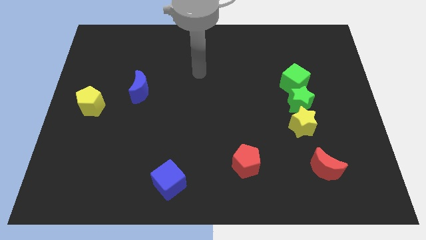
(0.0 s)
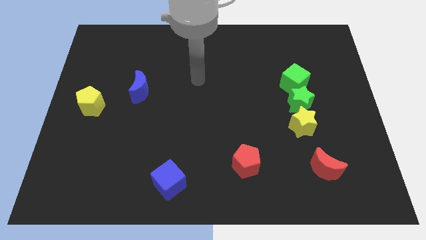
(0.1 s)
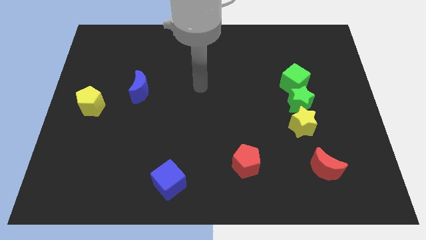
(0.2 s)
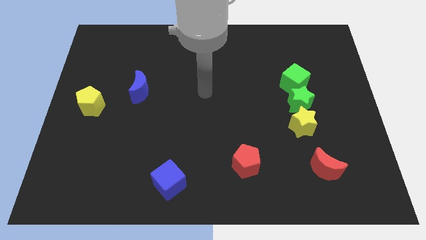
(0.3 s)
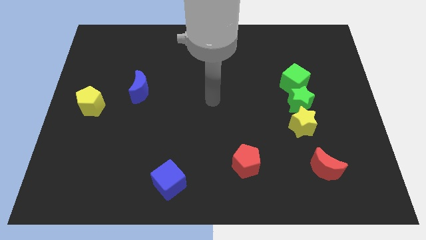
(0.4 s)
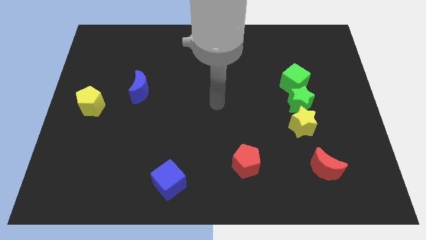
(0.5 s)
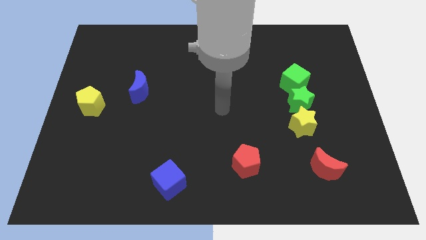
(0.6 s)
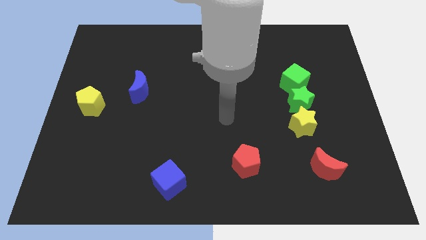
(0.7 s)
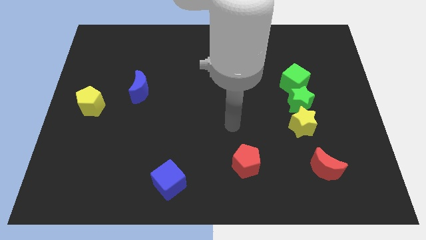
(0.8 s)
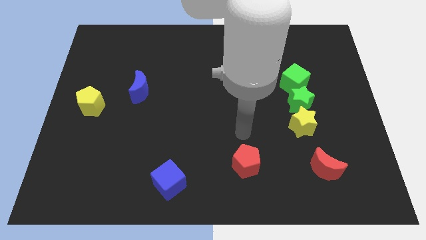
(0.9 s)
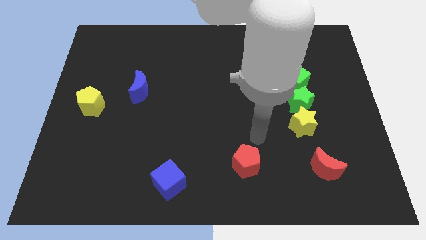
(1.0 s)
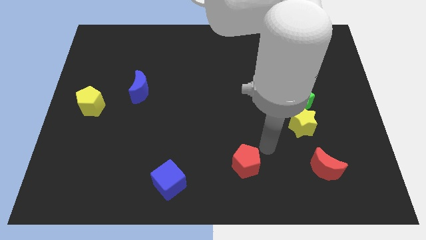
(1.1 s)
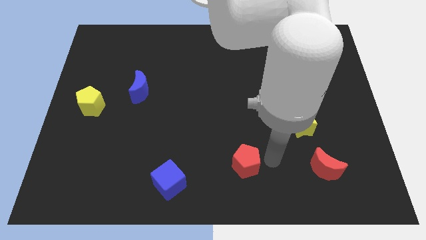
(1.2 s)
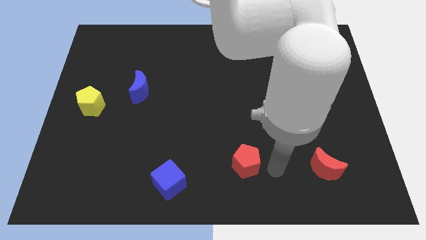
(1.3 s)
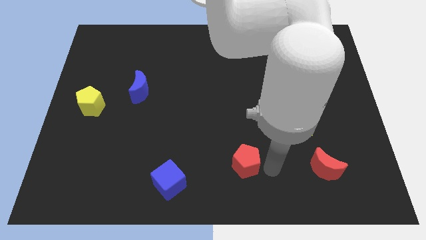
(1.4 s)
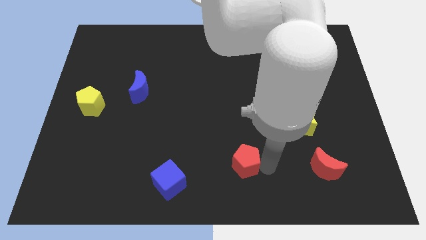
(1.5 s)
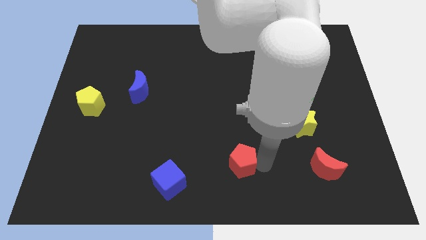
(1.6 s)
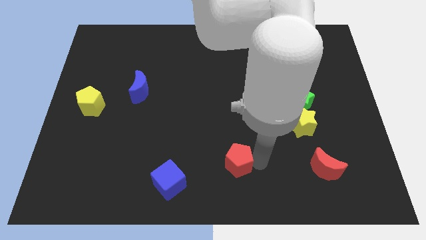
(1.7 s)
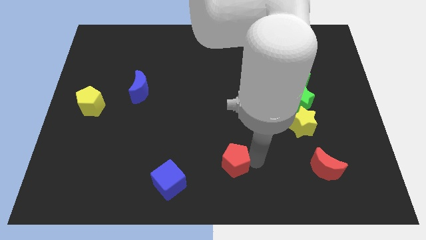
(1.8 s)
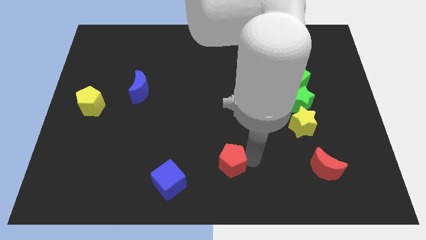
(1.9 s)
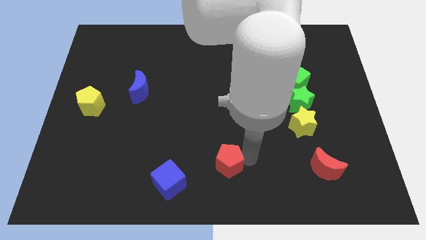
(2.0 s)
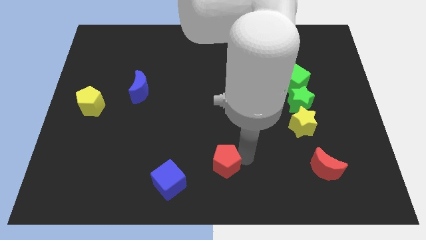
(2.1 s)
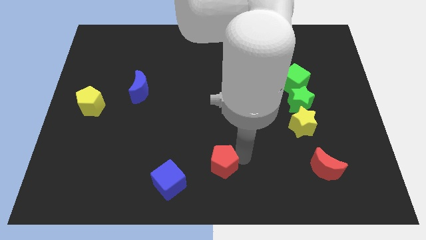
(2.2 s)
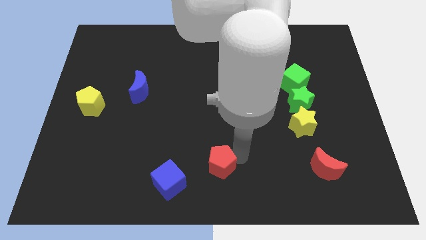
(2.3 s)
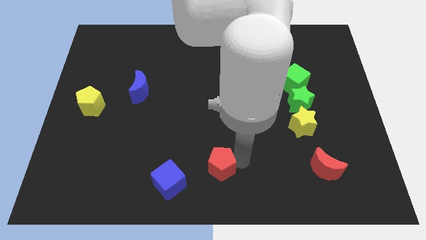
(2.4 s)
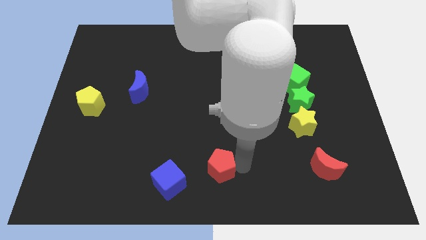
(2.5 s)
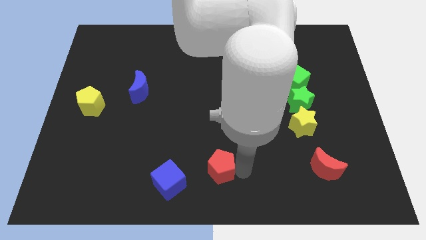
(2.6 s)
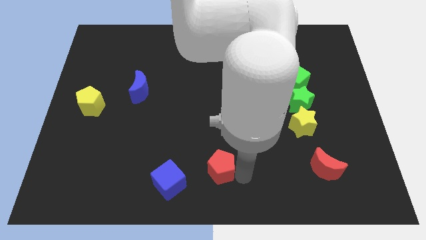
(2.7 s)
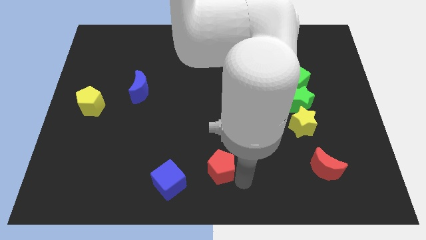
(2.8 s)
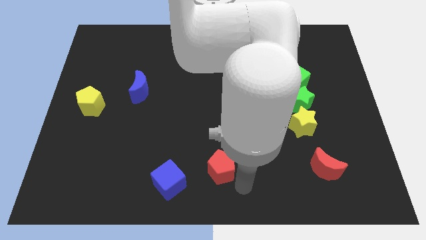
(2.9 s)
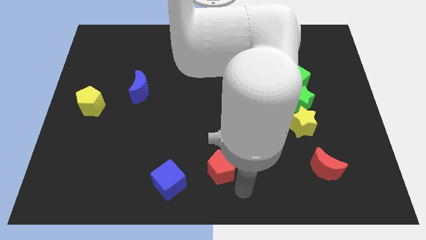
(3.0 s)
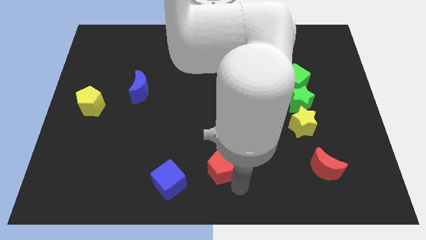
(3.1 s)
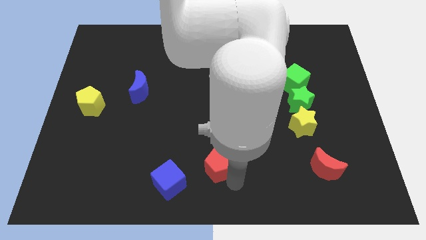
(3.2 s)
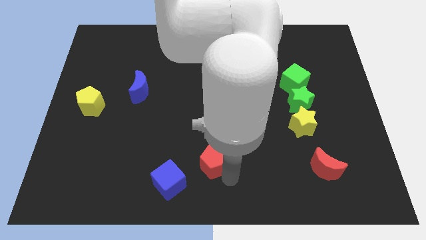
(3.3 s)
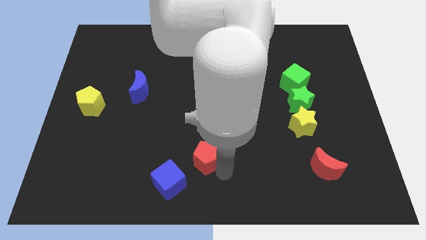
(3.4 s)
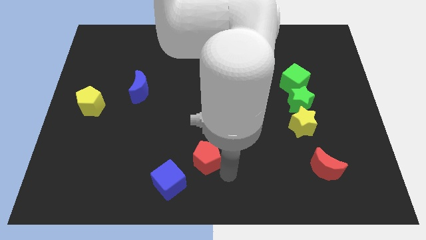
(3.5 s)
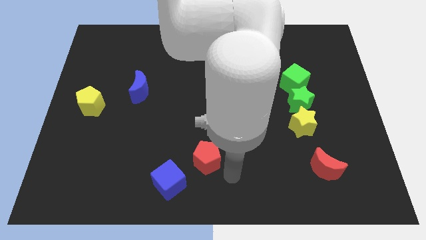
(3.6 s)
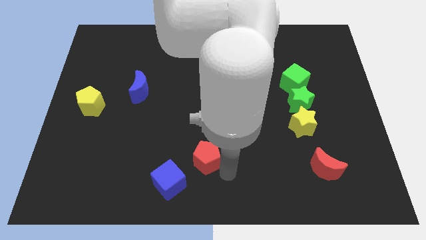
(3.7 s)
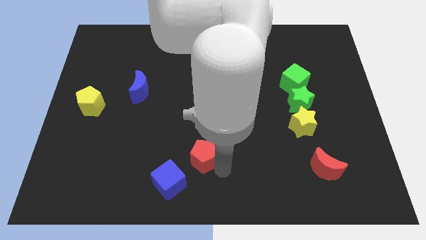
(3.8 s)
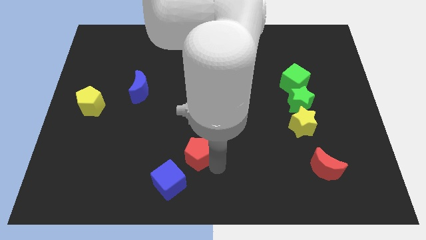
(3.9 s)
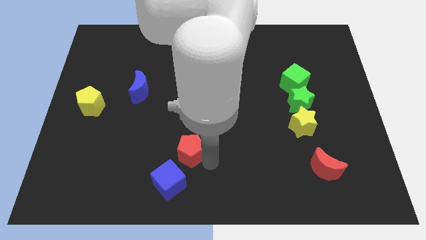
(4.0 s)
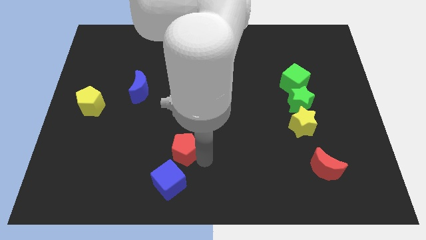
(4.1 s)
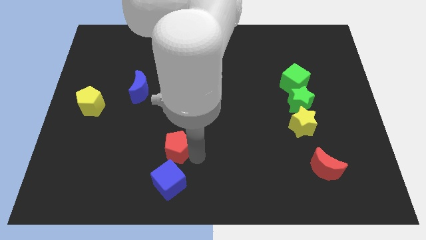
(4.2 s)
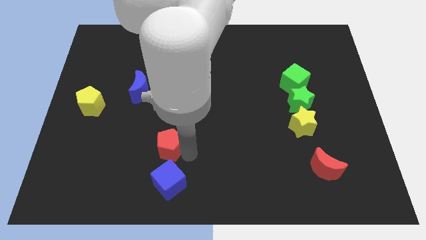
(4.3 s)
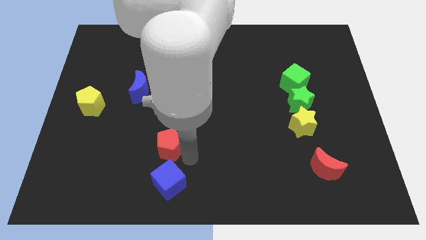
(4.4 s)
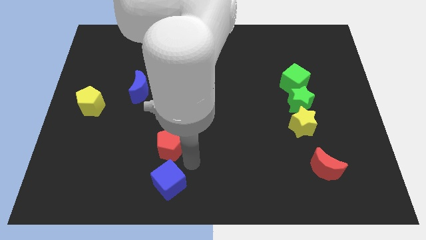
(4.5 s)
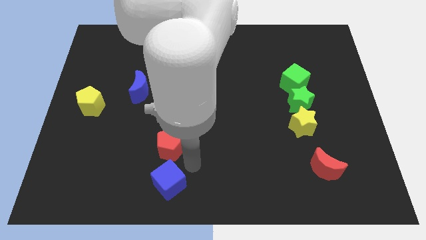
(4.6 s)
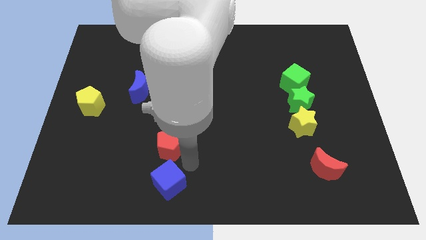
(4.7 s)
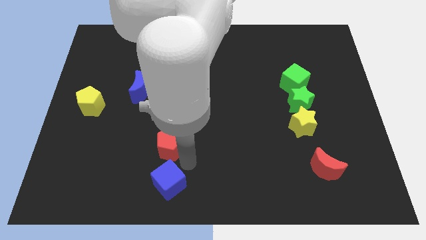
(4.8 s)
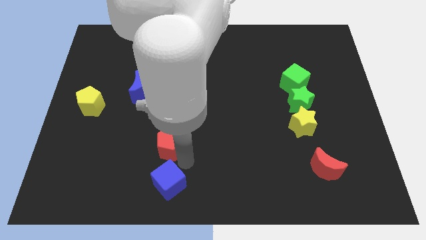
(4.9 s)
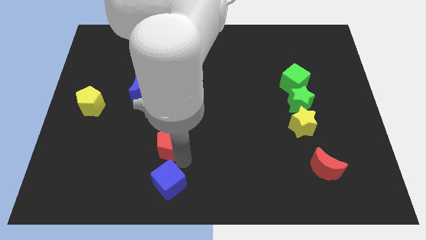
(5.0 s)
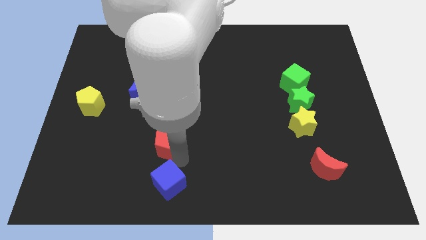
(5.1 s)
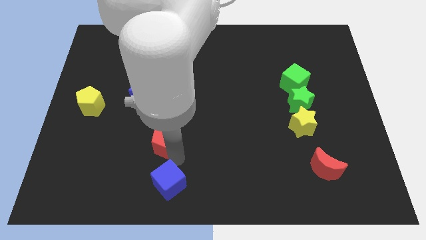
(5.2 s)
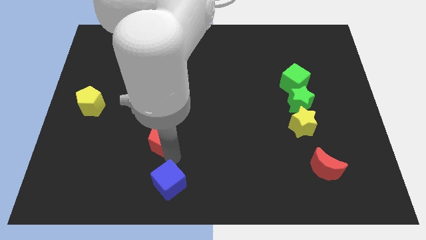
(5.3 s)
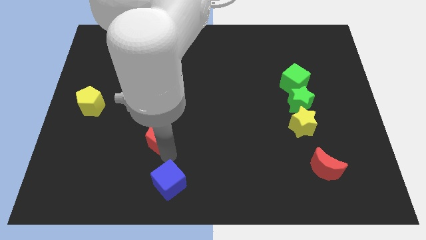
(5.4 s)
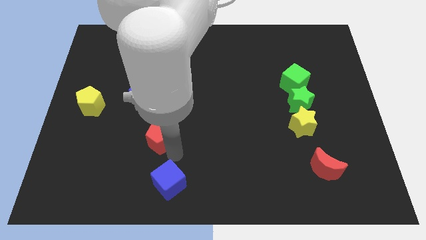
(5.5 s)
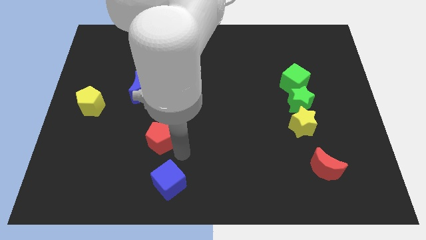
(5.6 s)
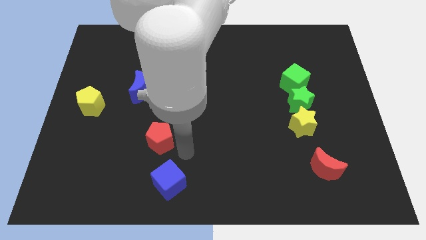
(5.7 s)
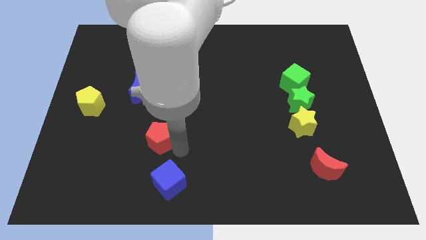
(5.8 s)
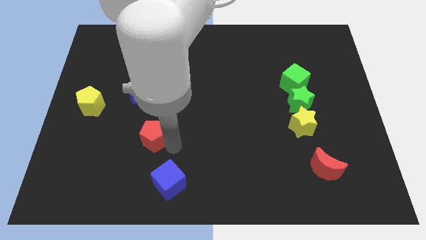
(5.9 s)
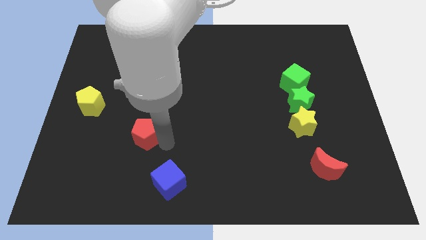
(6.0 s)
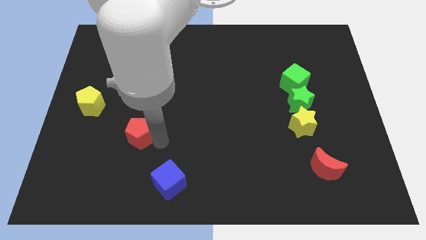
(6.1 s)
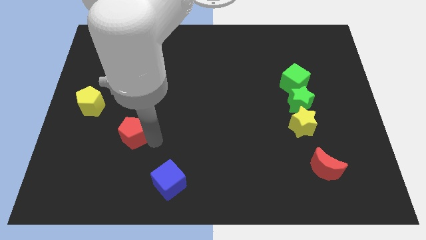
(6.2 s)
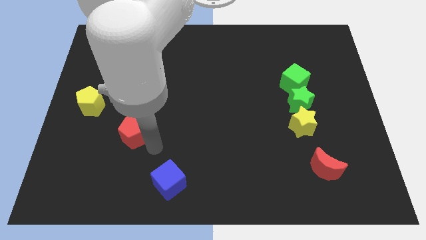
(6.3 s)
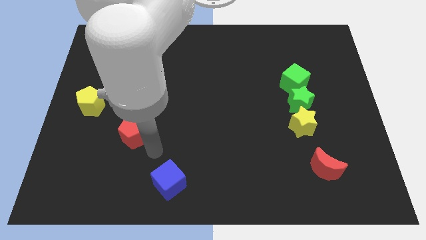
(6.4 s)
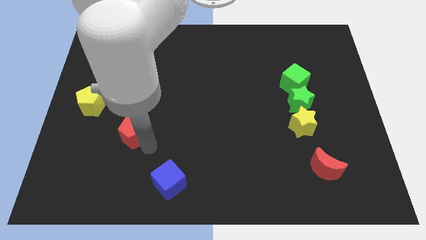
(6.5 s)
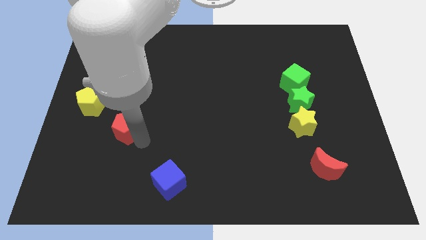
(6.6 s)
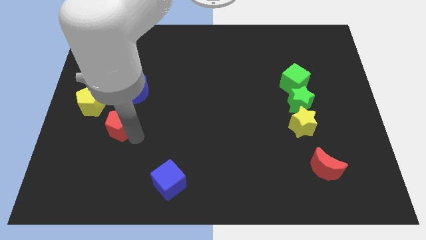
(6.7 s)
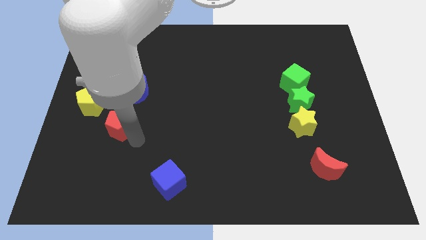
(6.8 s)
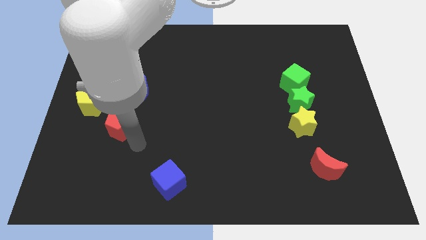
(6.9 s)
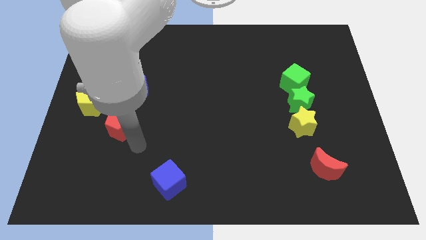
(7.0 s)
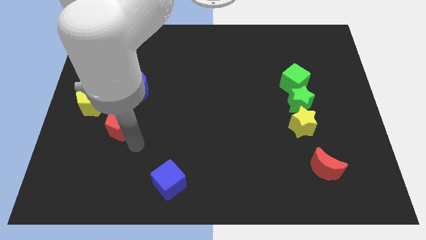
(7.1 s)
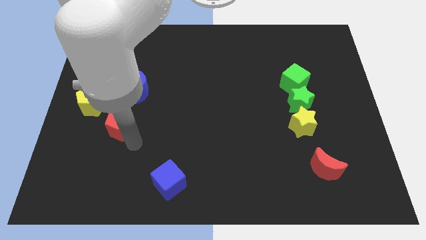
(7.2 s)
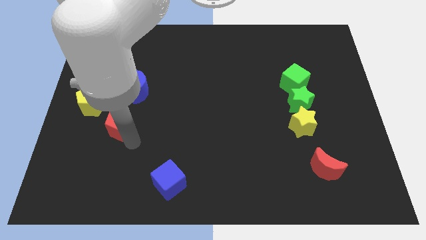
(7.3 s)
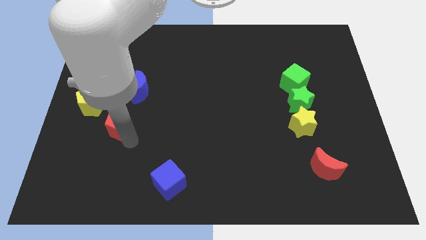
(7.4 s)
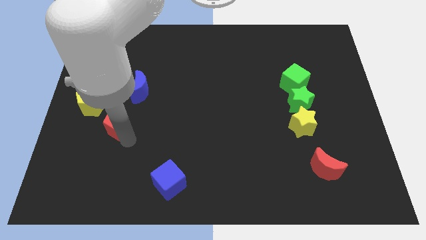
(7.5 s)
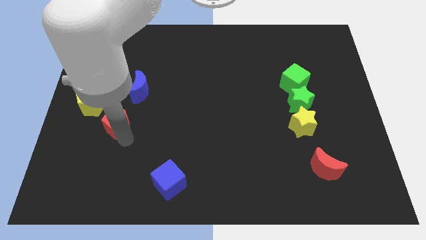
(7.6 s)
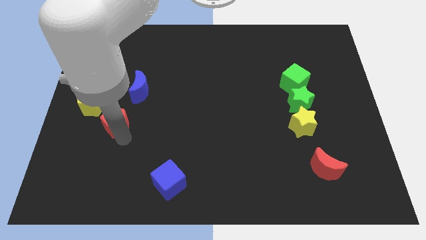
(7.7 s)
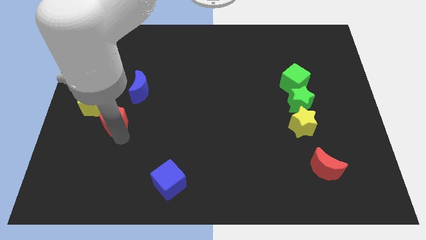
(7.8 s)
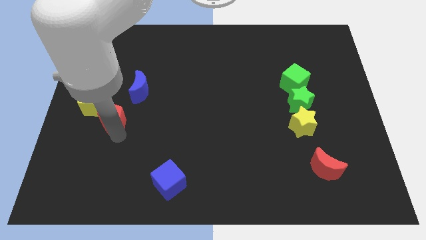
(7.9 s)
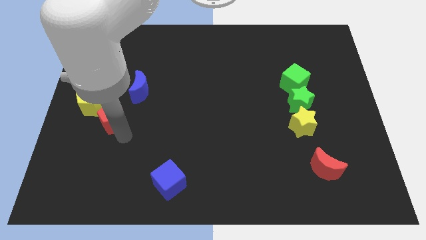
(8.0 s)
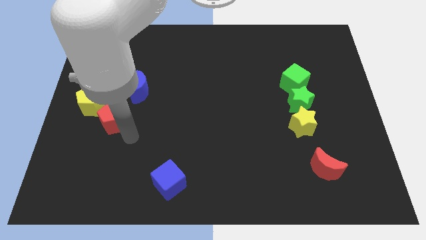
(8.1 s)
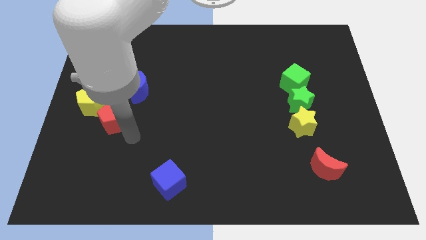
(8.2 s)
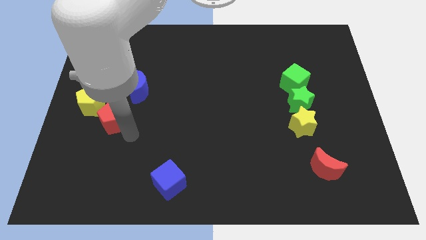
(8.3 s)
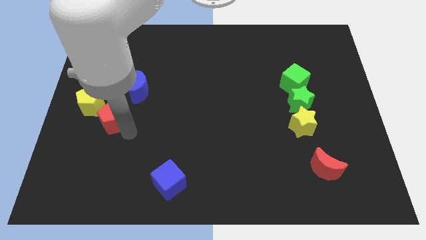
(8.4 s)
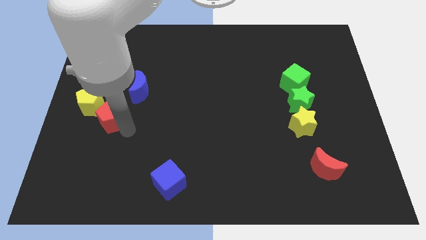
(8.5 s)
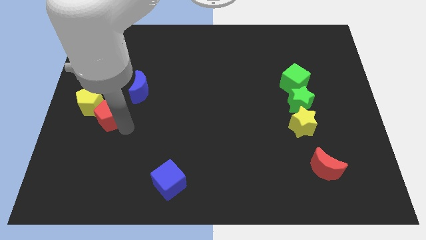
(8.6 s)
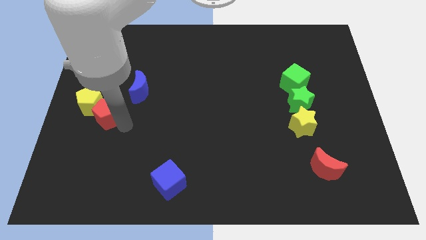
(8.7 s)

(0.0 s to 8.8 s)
move the red pentagon next to the yellow pentagon
